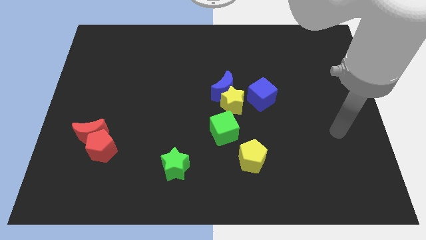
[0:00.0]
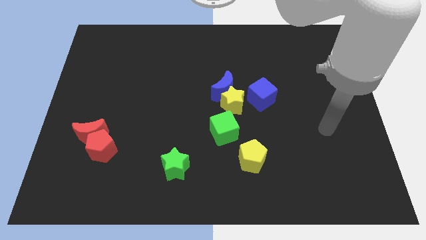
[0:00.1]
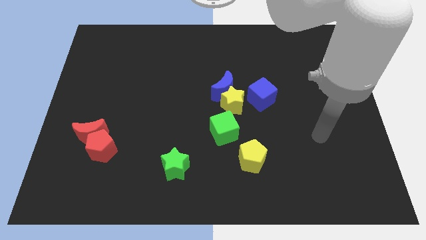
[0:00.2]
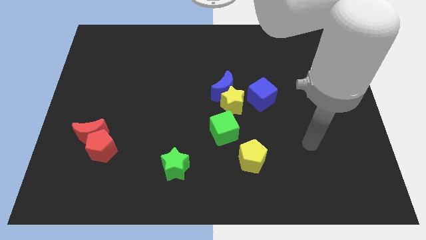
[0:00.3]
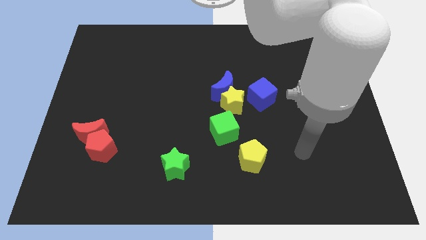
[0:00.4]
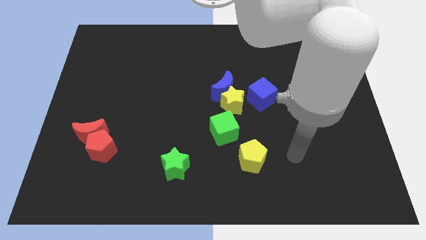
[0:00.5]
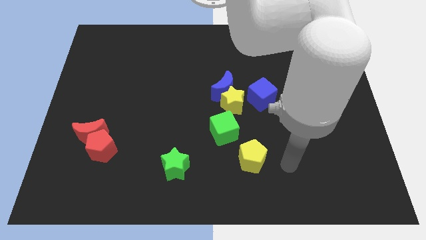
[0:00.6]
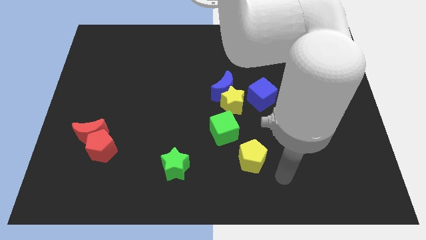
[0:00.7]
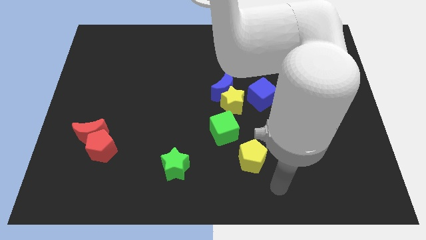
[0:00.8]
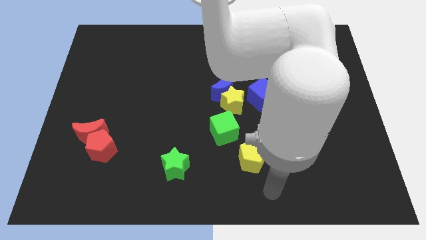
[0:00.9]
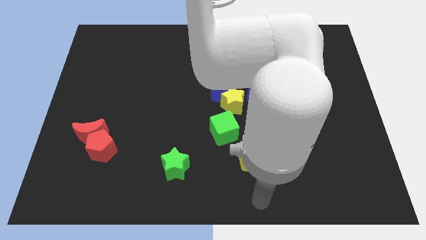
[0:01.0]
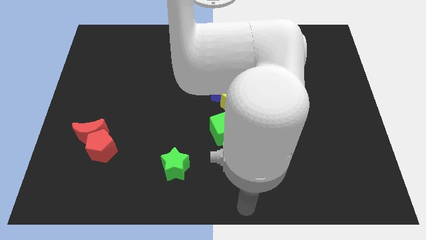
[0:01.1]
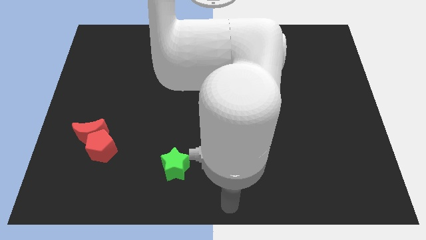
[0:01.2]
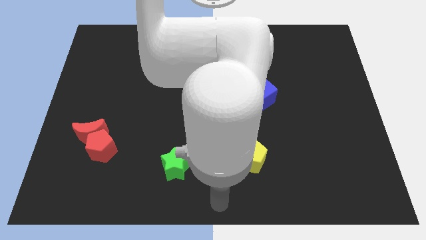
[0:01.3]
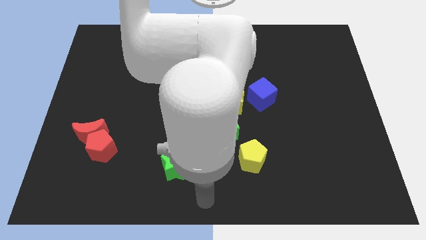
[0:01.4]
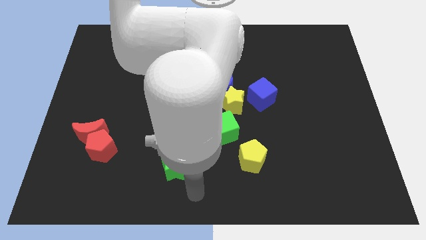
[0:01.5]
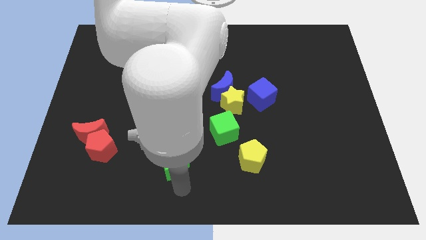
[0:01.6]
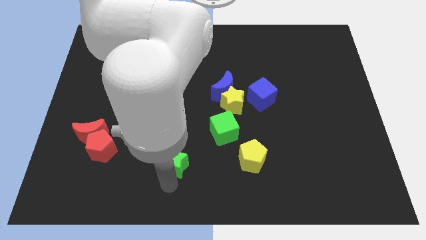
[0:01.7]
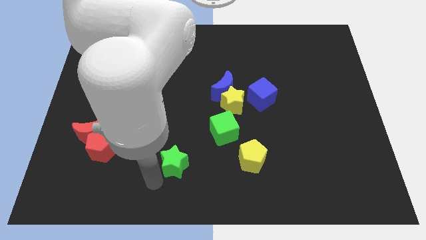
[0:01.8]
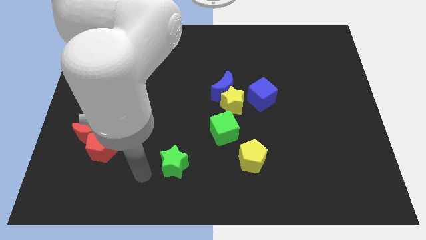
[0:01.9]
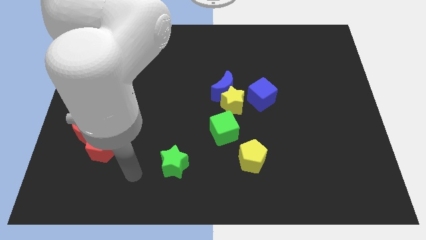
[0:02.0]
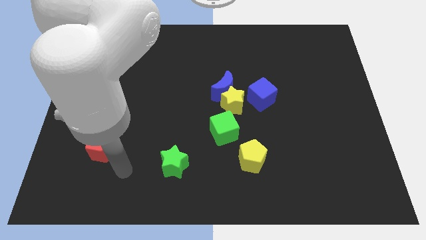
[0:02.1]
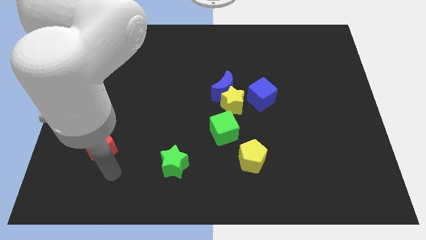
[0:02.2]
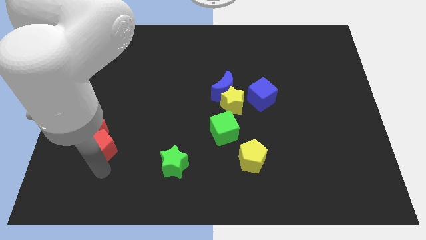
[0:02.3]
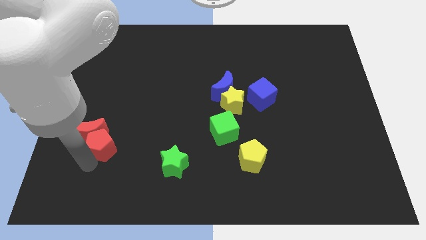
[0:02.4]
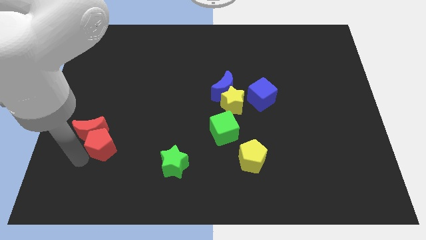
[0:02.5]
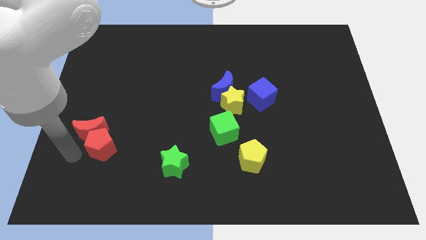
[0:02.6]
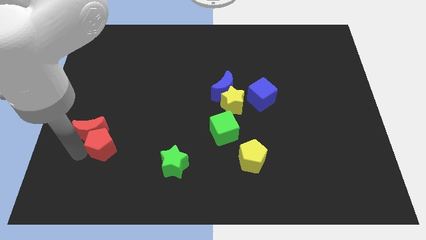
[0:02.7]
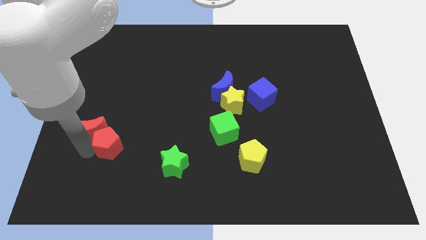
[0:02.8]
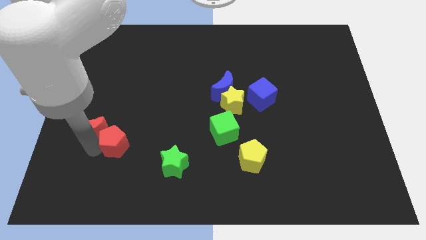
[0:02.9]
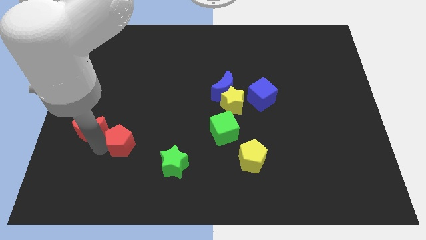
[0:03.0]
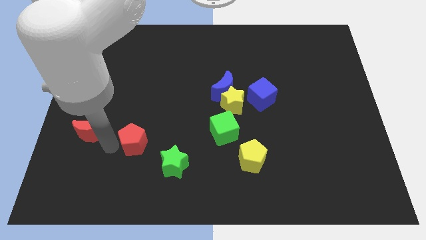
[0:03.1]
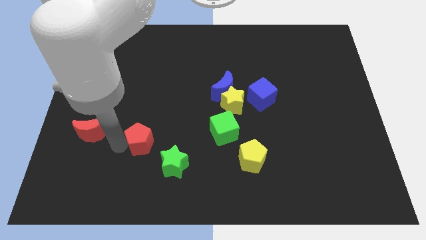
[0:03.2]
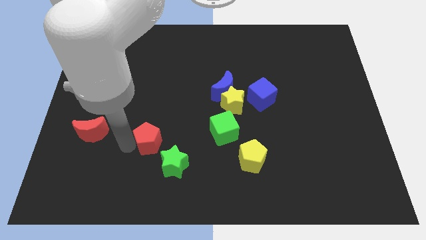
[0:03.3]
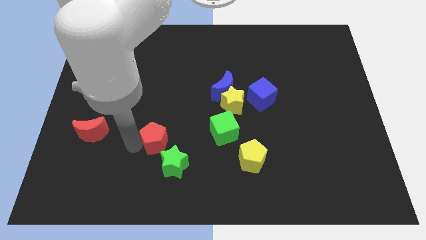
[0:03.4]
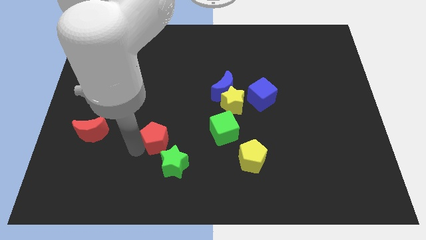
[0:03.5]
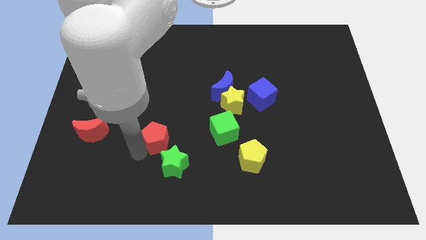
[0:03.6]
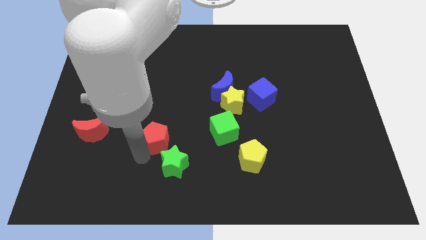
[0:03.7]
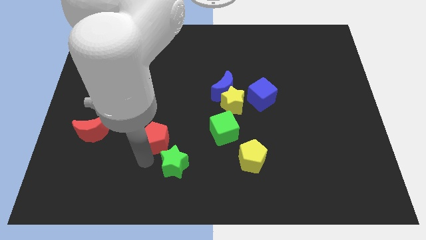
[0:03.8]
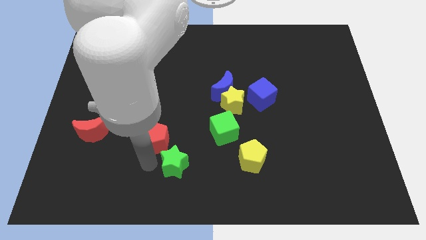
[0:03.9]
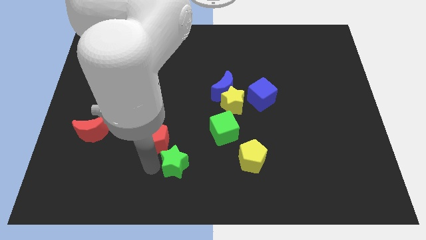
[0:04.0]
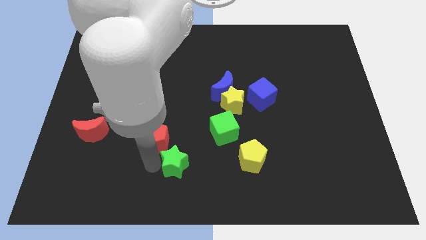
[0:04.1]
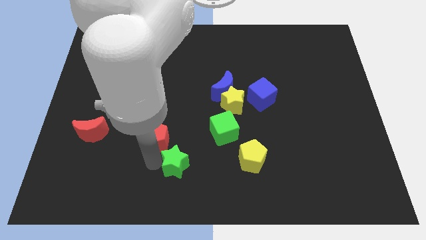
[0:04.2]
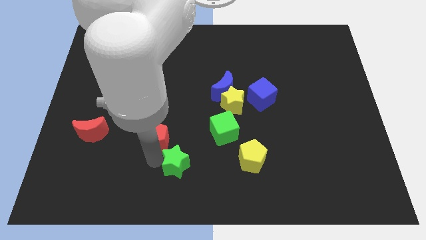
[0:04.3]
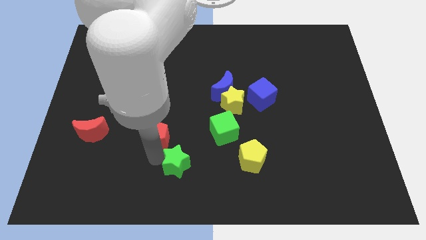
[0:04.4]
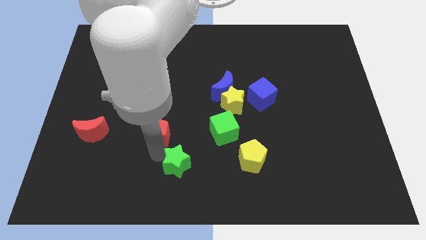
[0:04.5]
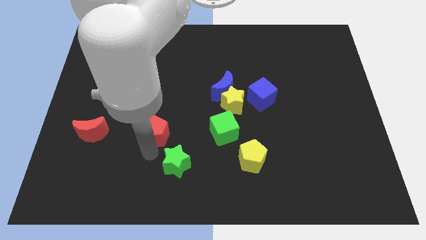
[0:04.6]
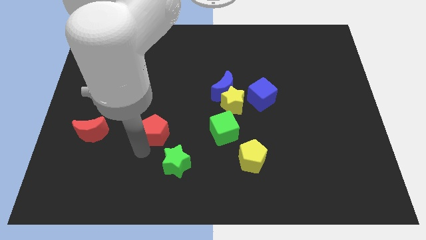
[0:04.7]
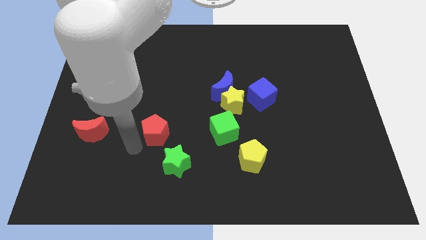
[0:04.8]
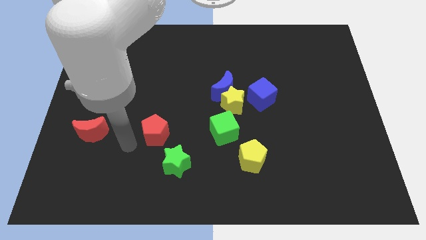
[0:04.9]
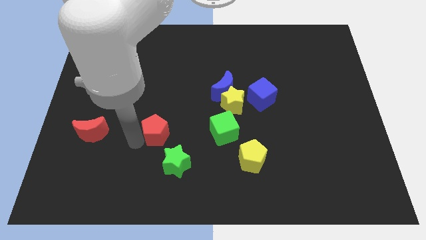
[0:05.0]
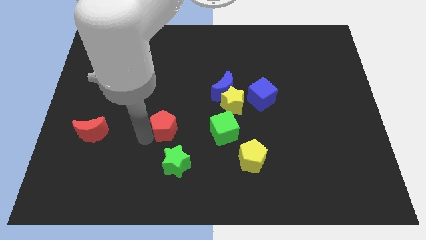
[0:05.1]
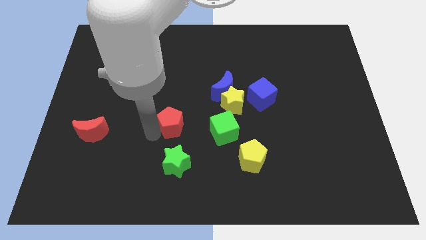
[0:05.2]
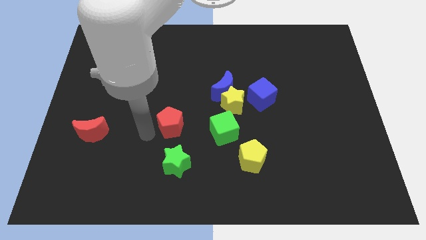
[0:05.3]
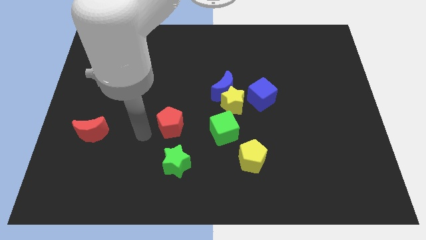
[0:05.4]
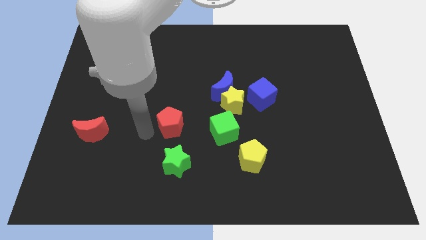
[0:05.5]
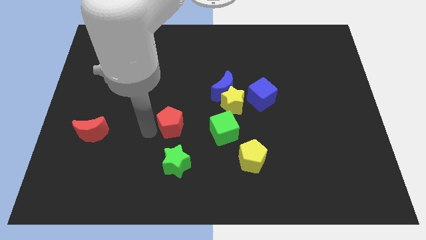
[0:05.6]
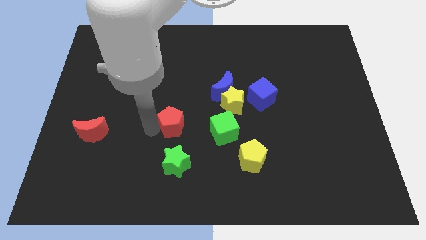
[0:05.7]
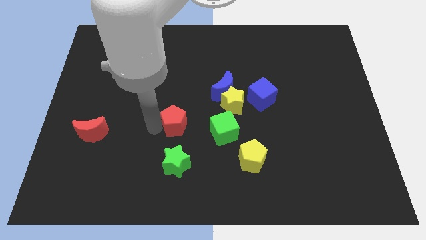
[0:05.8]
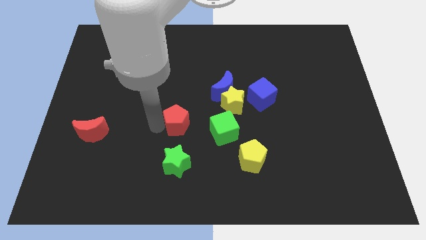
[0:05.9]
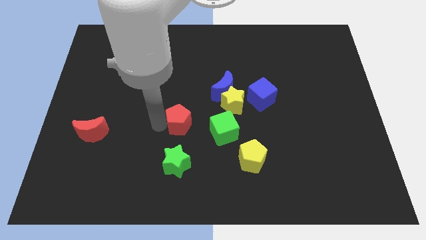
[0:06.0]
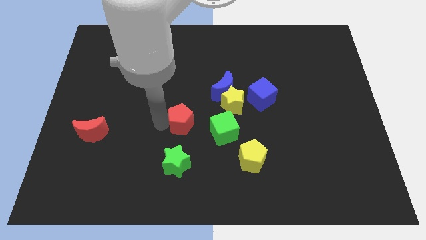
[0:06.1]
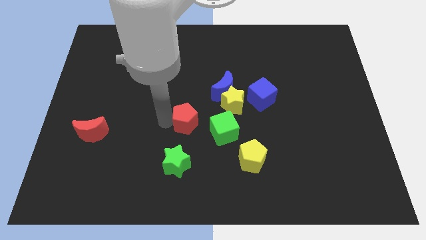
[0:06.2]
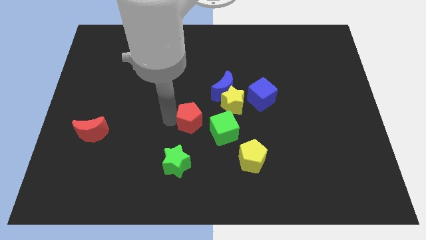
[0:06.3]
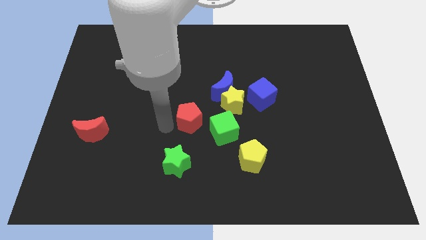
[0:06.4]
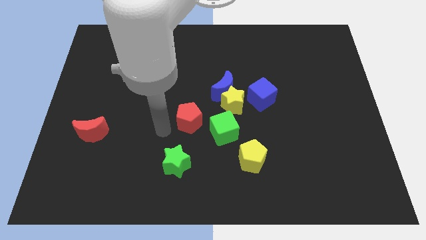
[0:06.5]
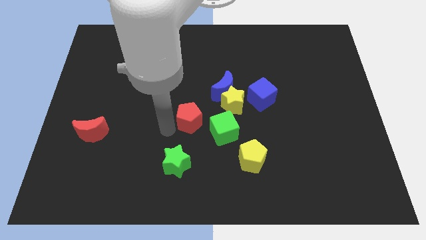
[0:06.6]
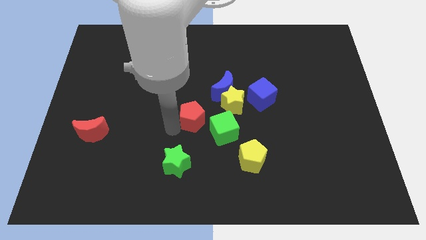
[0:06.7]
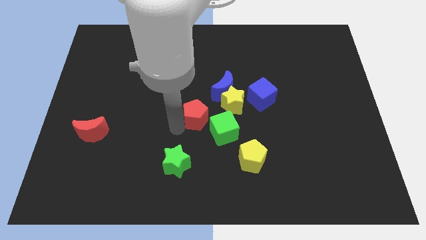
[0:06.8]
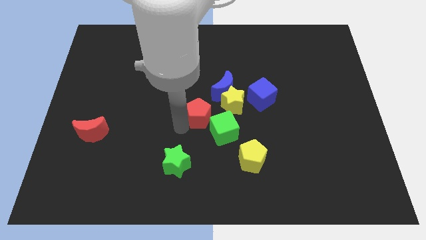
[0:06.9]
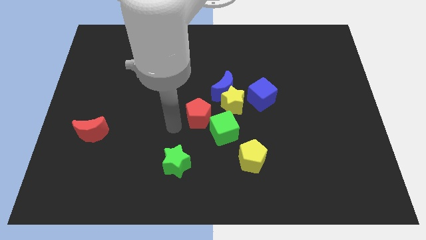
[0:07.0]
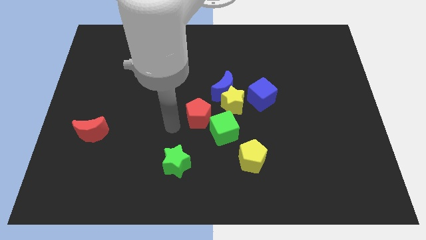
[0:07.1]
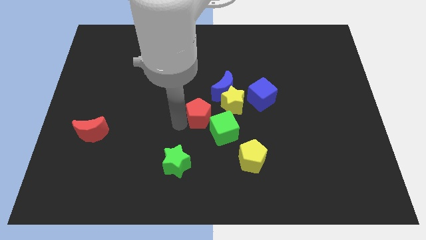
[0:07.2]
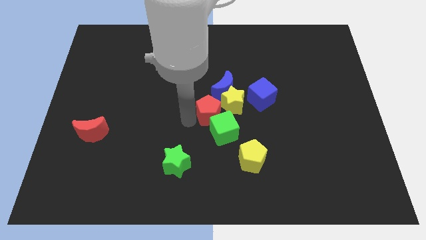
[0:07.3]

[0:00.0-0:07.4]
push the red pentagon close to the yellow star

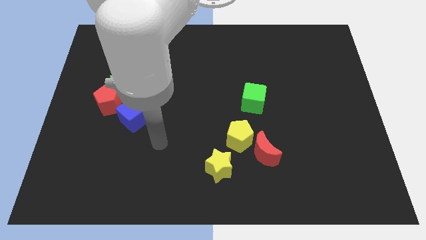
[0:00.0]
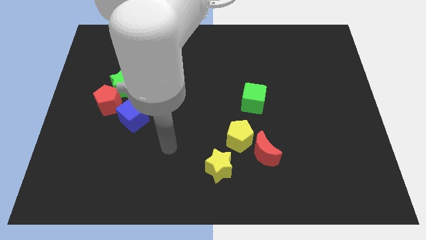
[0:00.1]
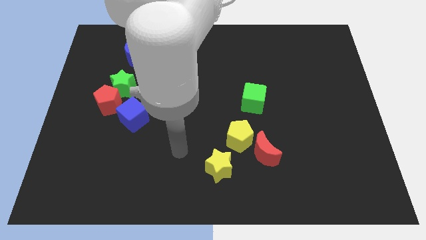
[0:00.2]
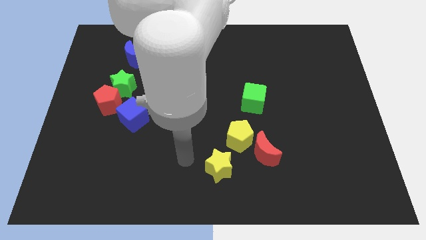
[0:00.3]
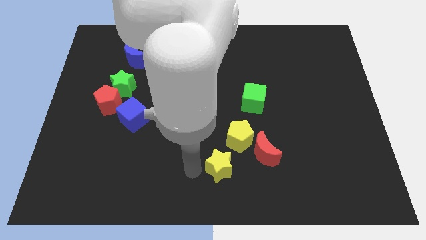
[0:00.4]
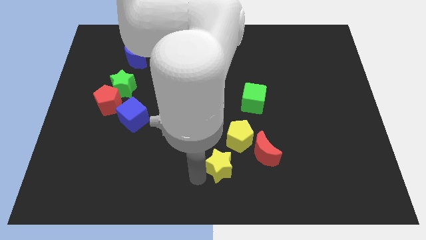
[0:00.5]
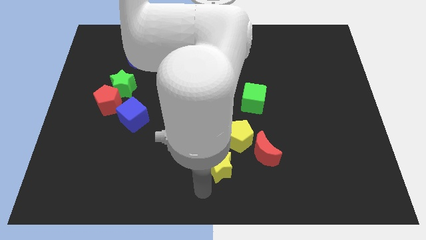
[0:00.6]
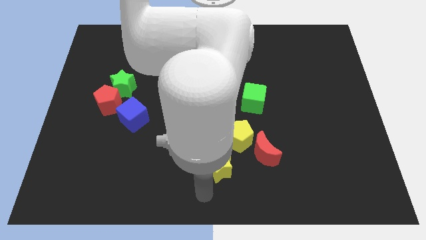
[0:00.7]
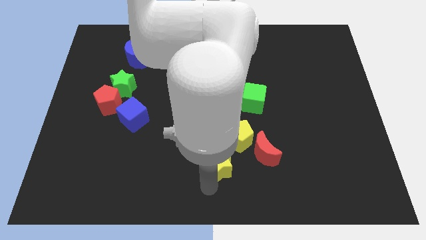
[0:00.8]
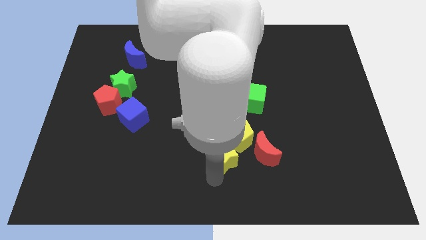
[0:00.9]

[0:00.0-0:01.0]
move the yellow star close to the yellow pentagon
